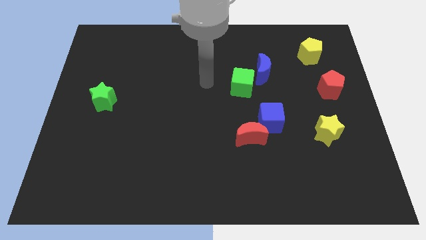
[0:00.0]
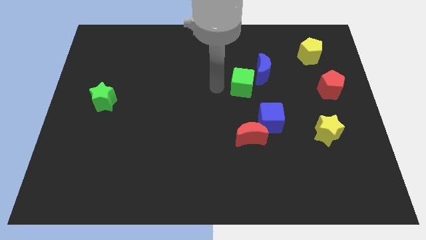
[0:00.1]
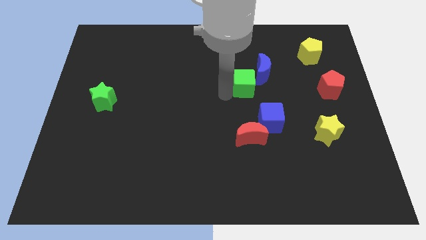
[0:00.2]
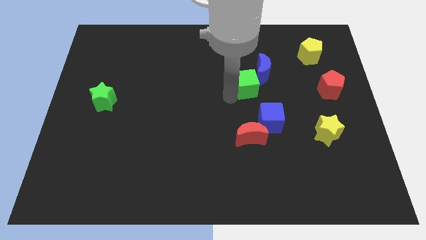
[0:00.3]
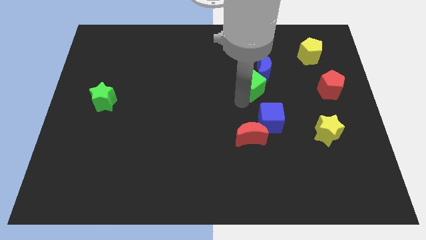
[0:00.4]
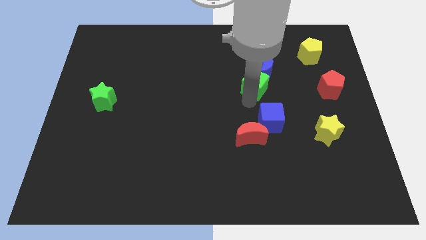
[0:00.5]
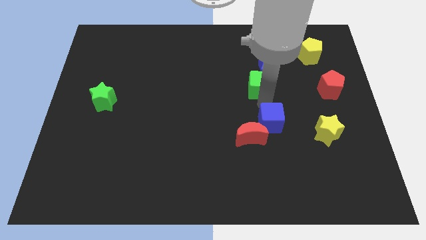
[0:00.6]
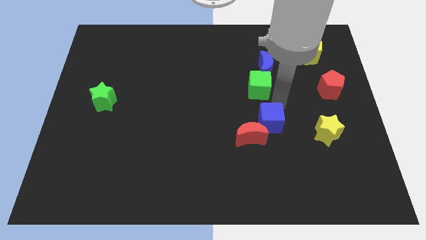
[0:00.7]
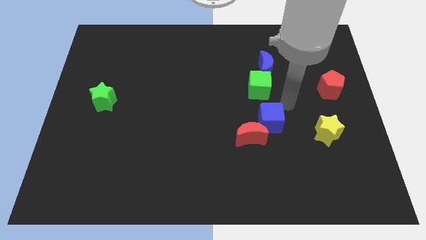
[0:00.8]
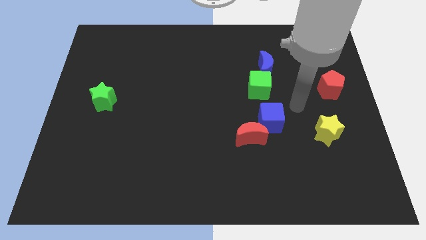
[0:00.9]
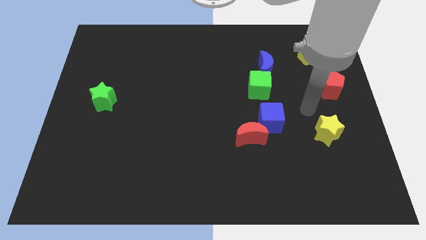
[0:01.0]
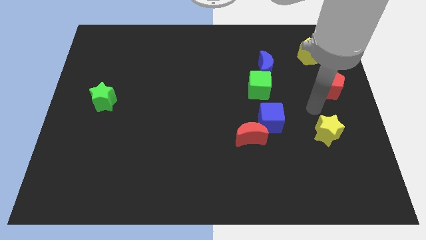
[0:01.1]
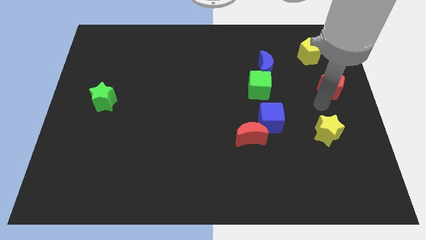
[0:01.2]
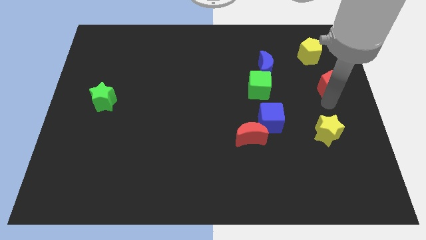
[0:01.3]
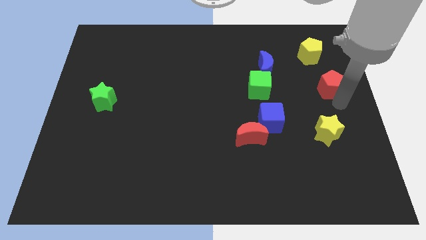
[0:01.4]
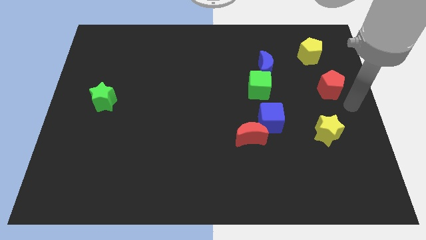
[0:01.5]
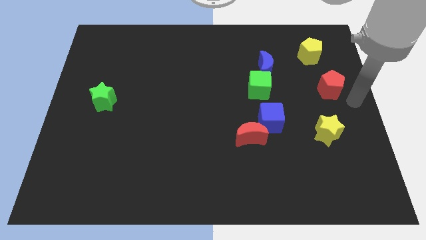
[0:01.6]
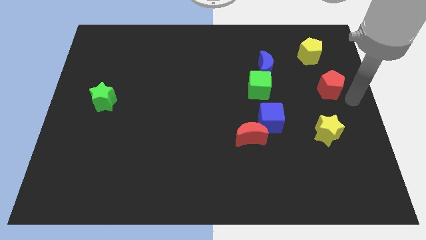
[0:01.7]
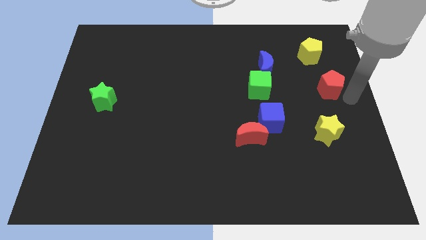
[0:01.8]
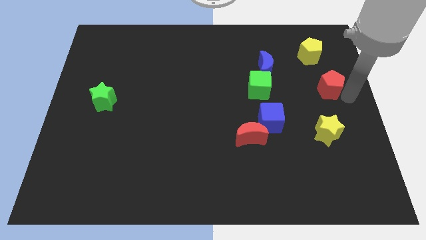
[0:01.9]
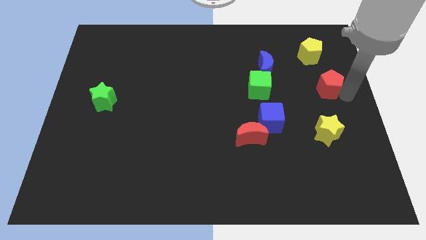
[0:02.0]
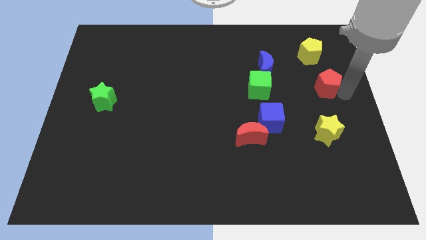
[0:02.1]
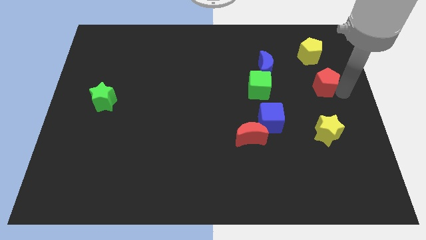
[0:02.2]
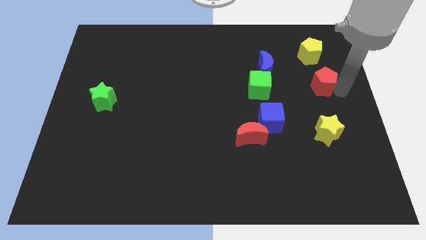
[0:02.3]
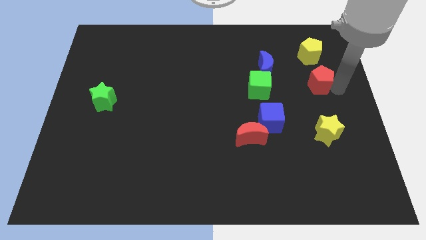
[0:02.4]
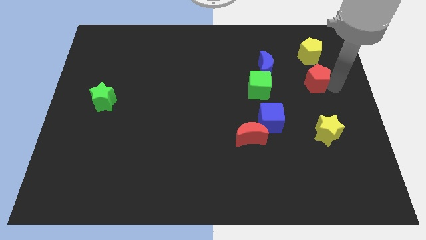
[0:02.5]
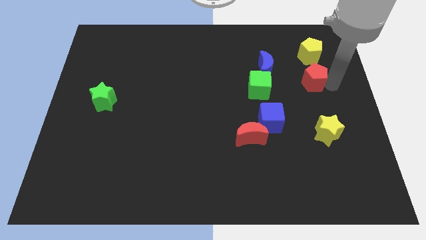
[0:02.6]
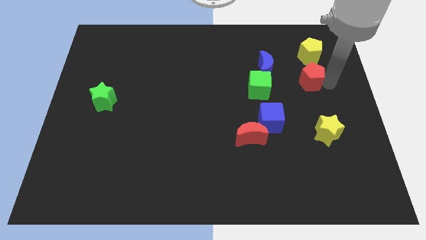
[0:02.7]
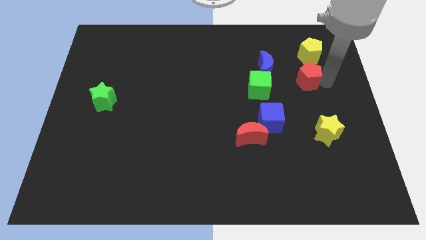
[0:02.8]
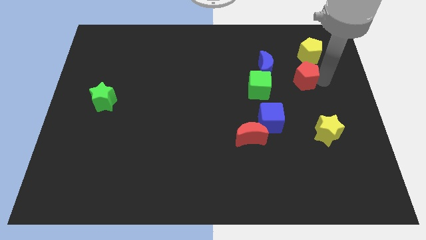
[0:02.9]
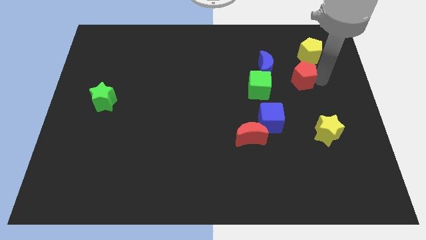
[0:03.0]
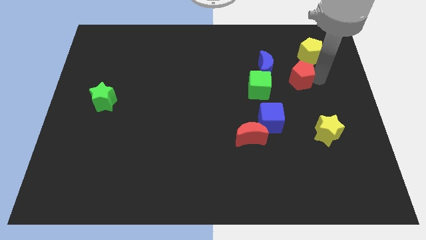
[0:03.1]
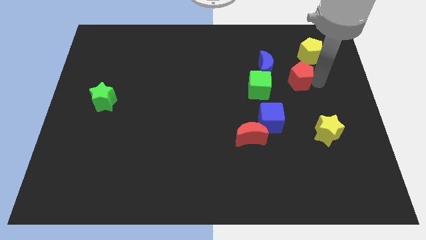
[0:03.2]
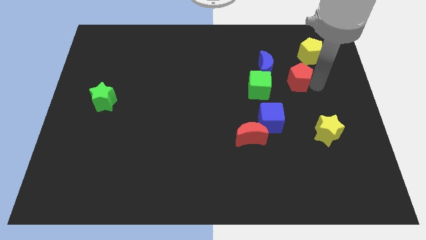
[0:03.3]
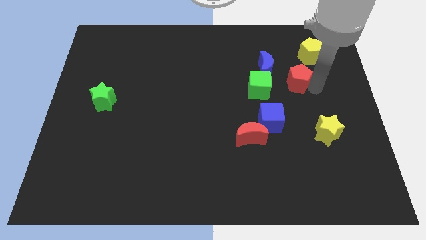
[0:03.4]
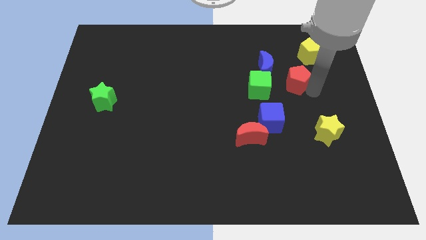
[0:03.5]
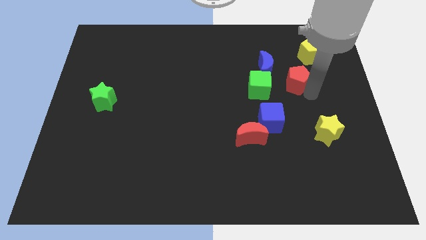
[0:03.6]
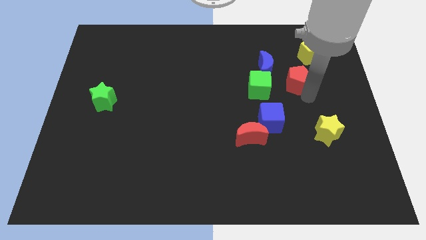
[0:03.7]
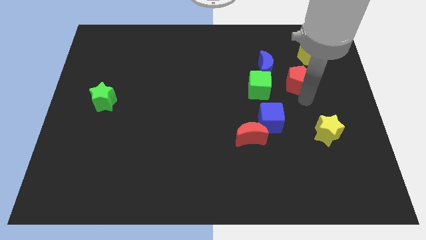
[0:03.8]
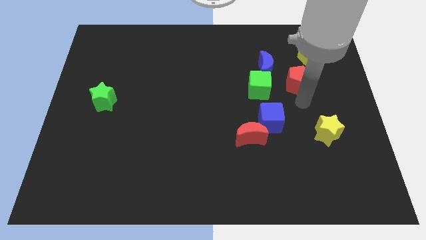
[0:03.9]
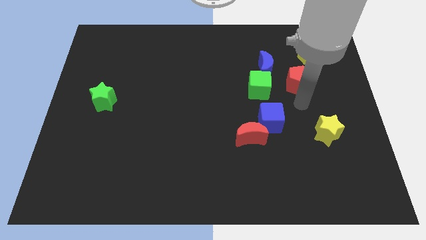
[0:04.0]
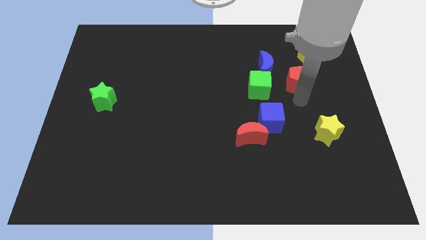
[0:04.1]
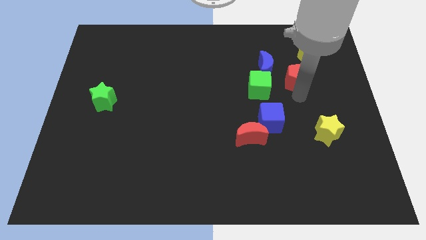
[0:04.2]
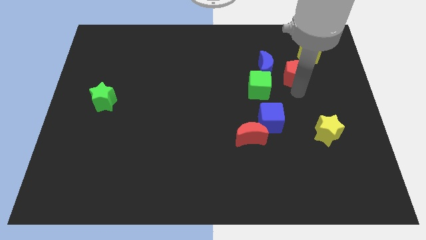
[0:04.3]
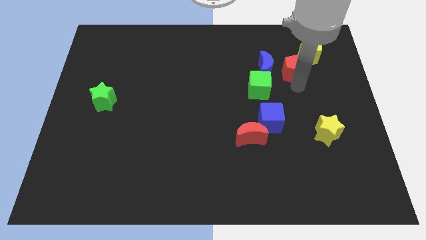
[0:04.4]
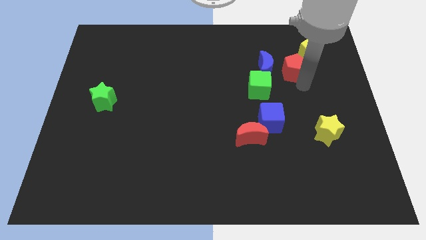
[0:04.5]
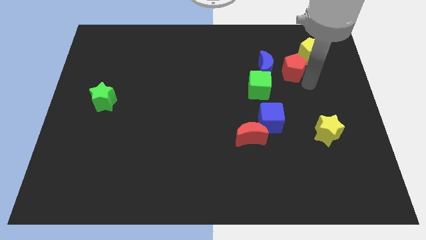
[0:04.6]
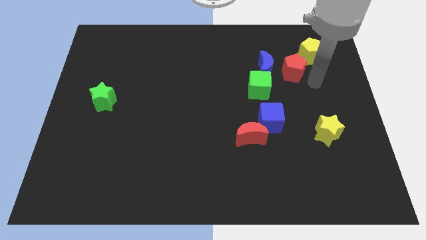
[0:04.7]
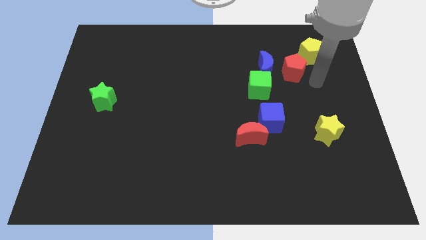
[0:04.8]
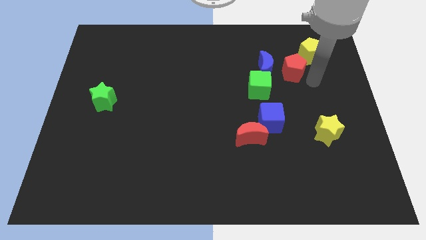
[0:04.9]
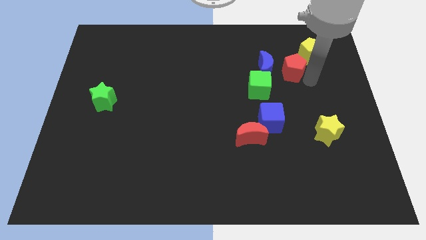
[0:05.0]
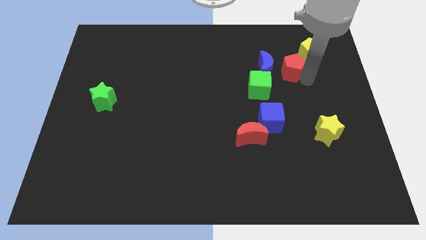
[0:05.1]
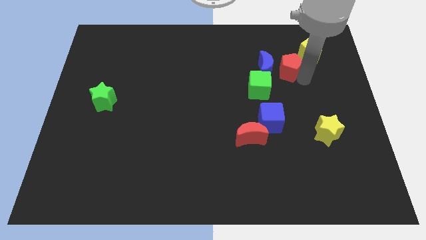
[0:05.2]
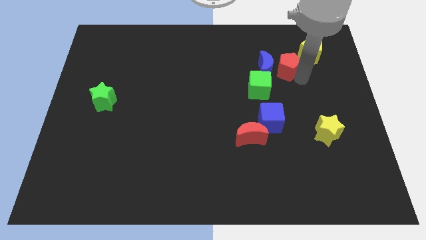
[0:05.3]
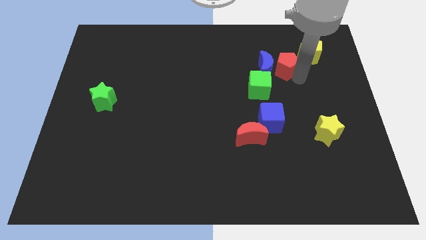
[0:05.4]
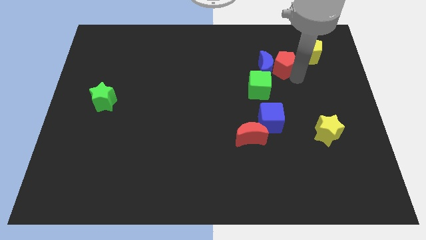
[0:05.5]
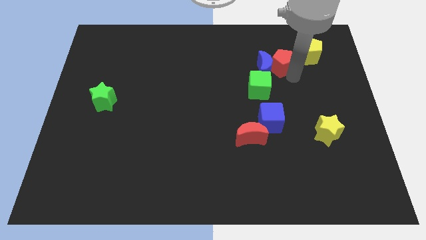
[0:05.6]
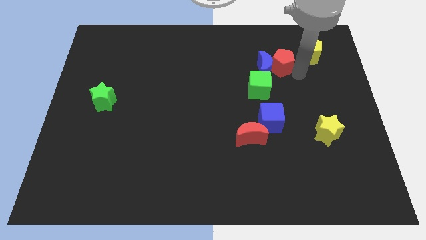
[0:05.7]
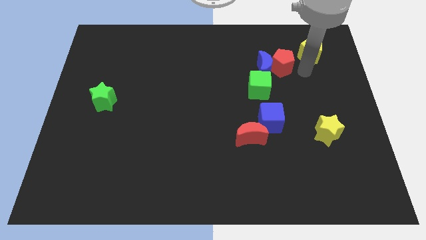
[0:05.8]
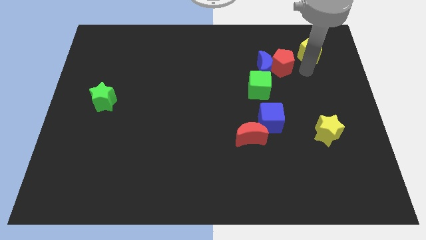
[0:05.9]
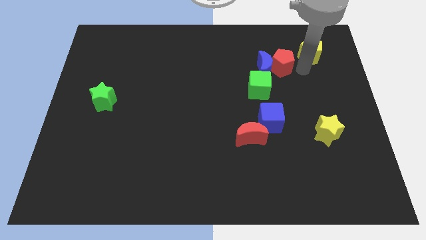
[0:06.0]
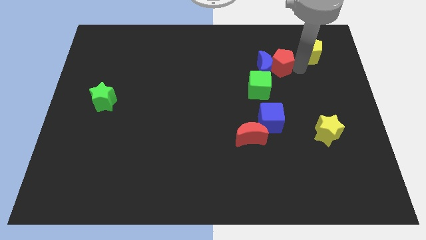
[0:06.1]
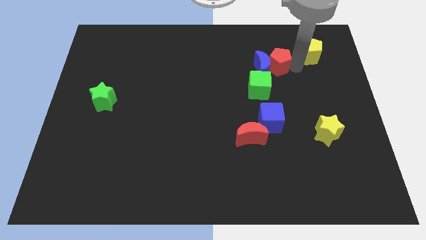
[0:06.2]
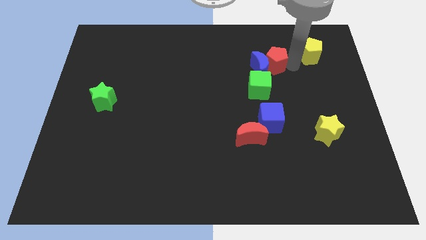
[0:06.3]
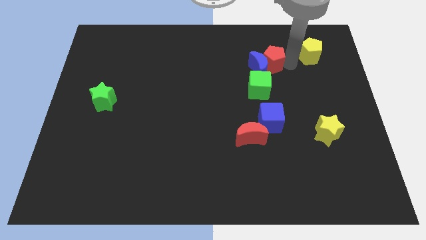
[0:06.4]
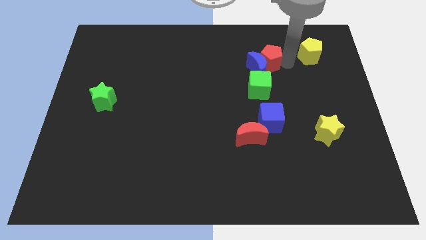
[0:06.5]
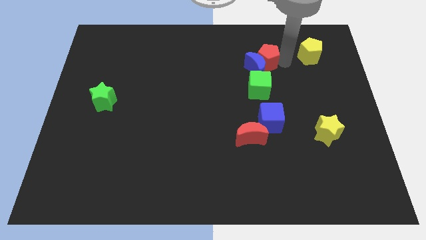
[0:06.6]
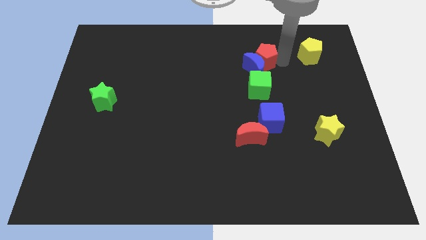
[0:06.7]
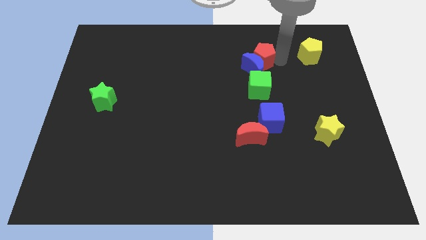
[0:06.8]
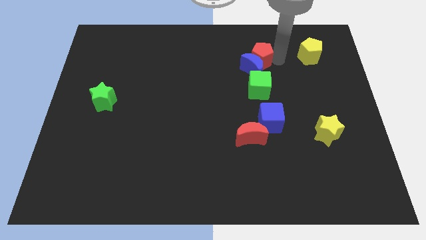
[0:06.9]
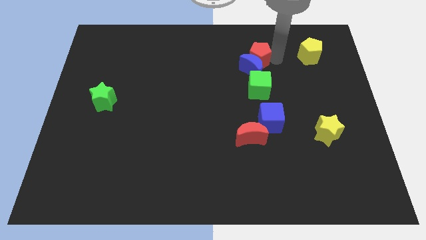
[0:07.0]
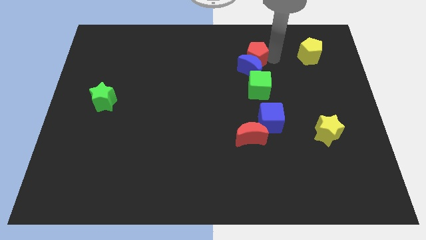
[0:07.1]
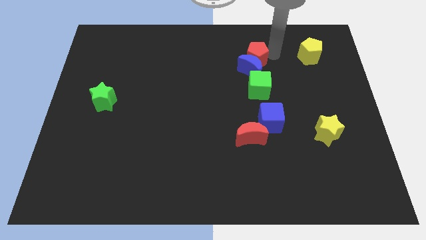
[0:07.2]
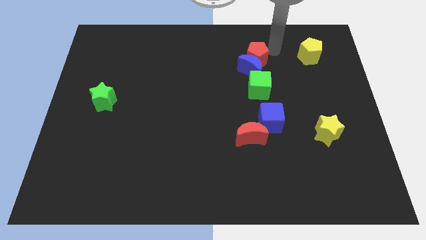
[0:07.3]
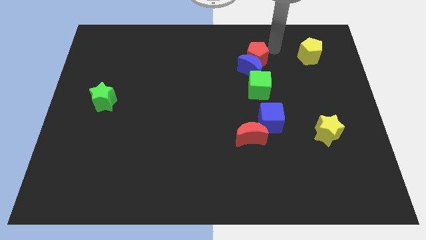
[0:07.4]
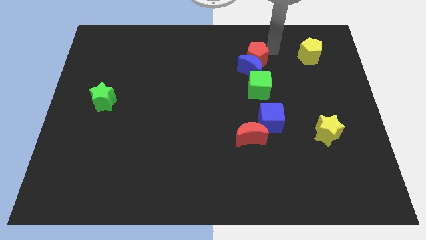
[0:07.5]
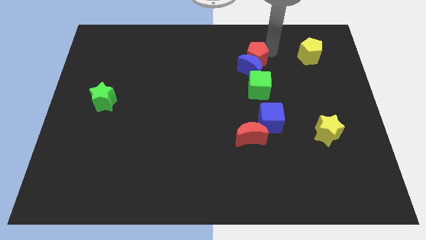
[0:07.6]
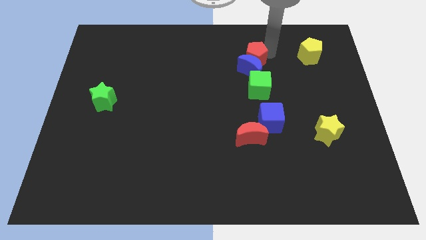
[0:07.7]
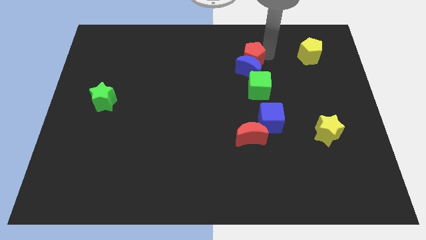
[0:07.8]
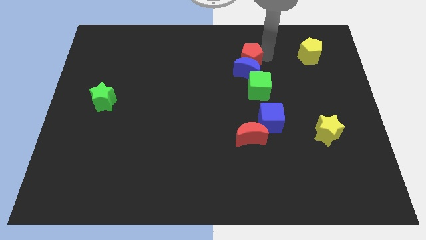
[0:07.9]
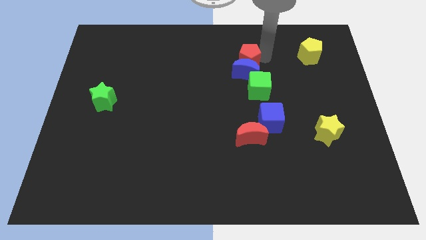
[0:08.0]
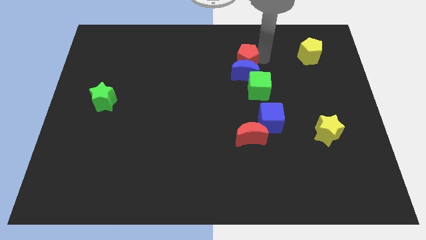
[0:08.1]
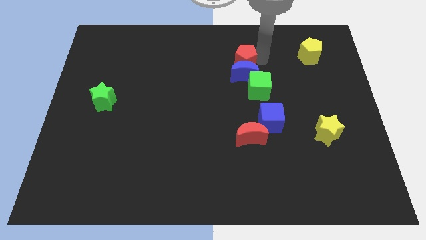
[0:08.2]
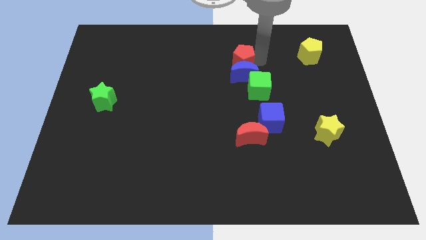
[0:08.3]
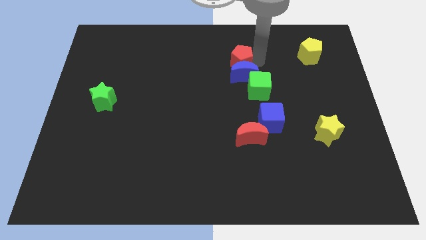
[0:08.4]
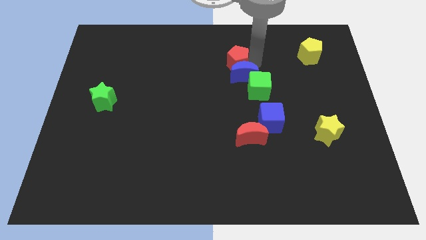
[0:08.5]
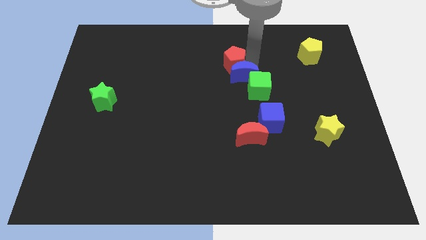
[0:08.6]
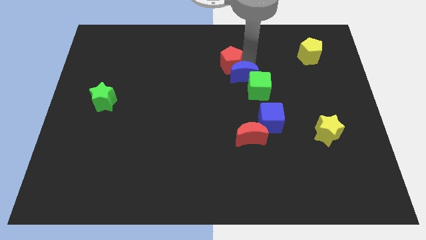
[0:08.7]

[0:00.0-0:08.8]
slide the red pentagon just left of the blue moon
